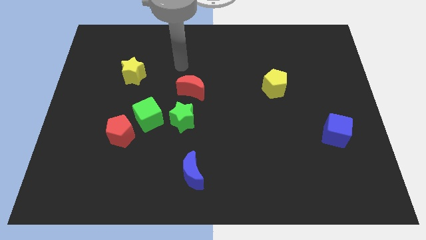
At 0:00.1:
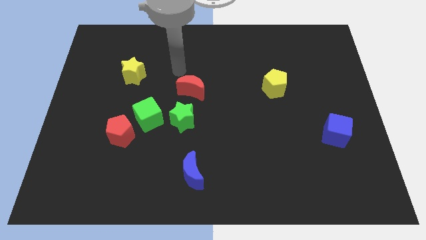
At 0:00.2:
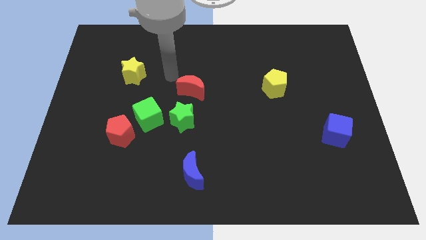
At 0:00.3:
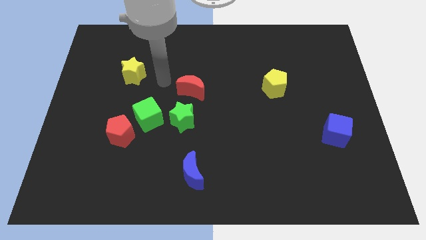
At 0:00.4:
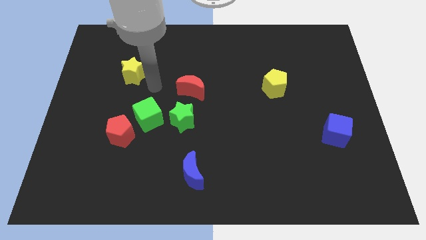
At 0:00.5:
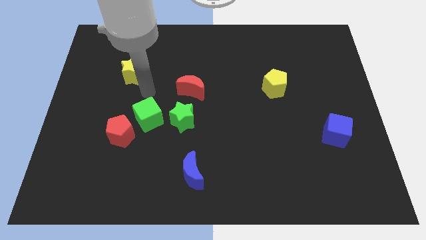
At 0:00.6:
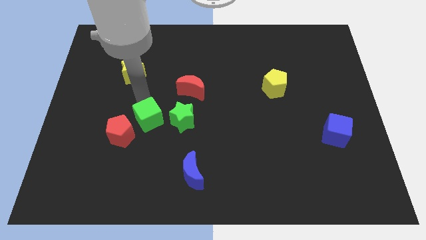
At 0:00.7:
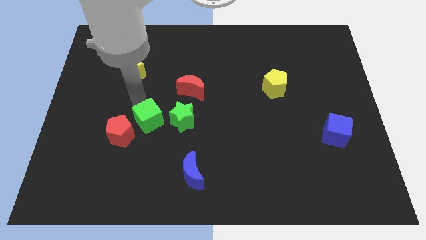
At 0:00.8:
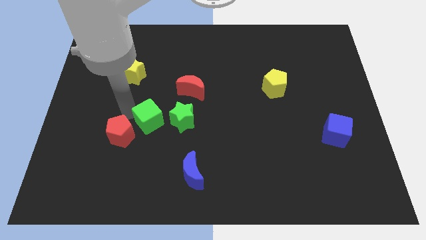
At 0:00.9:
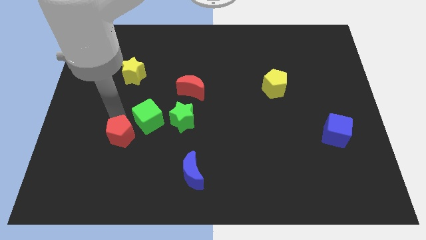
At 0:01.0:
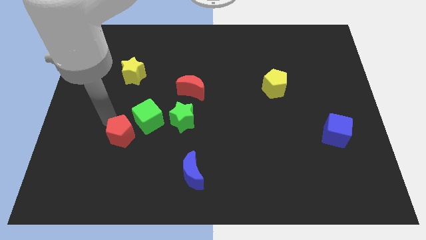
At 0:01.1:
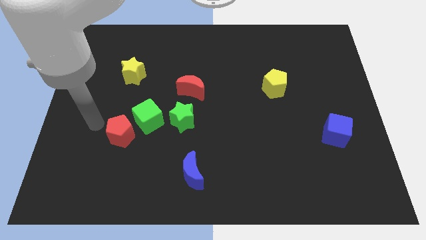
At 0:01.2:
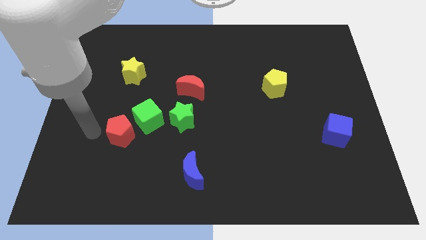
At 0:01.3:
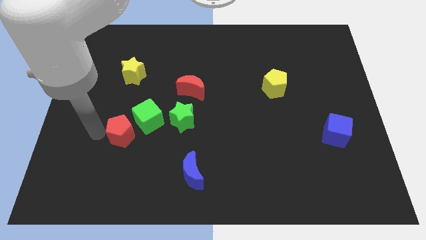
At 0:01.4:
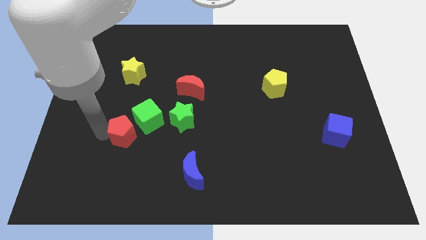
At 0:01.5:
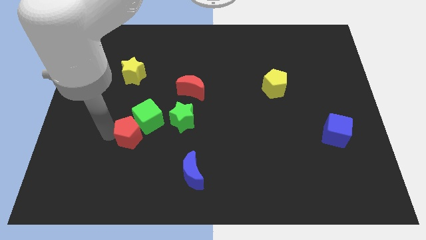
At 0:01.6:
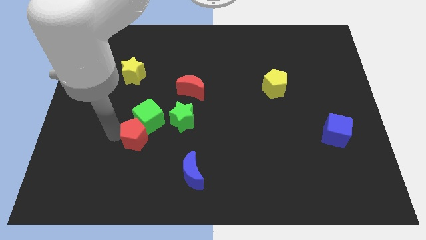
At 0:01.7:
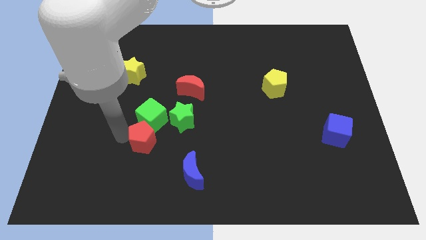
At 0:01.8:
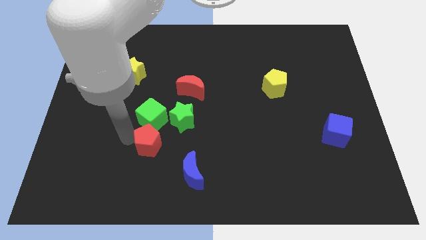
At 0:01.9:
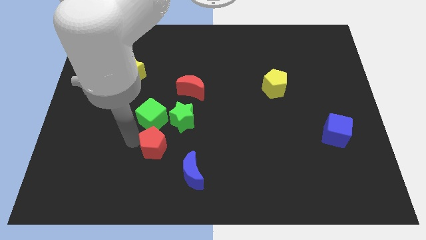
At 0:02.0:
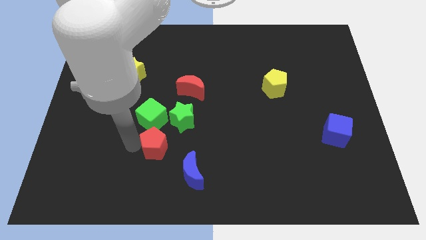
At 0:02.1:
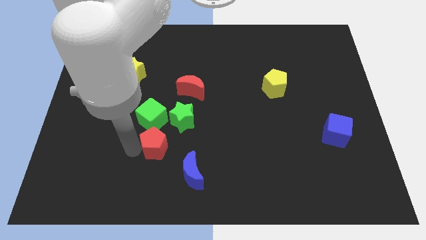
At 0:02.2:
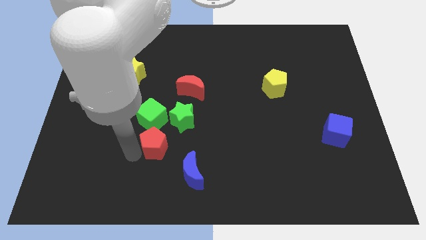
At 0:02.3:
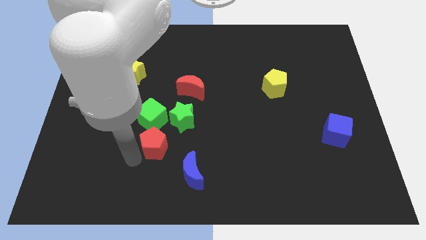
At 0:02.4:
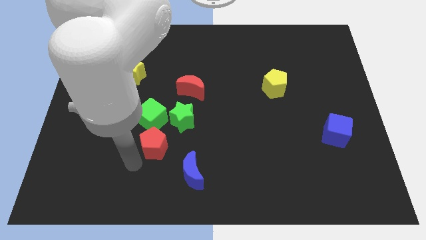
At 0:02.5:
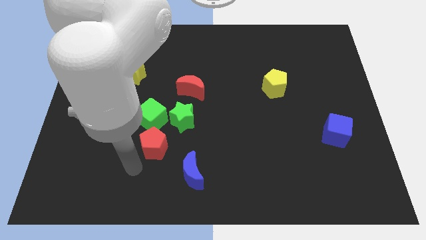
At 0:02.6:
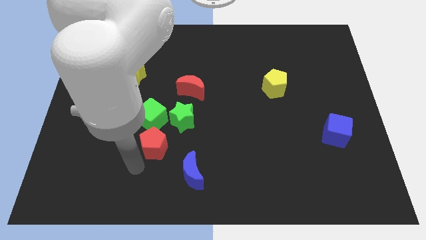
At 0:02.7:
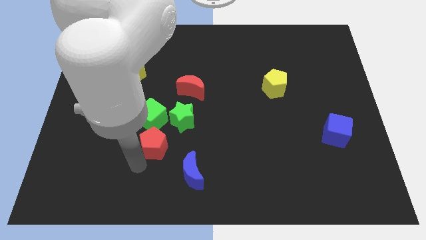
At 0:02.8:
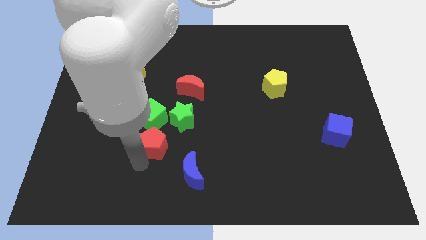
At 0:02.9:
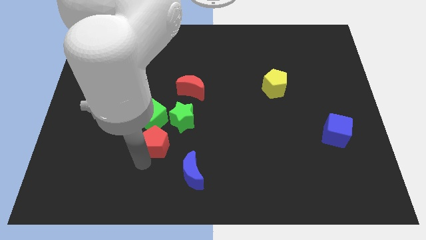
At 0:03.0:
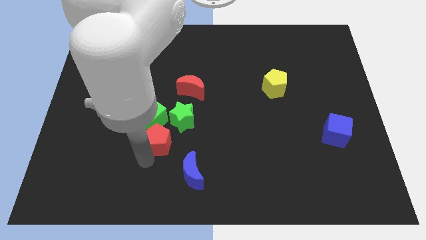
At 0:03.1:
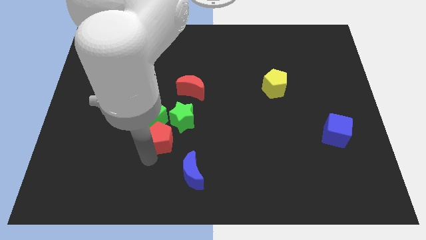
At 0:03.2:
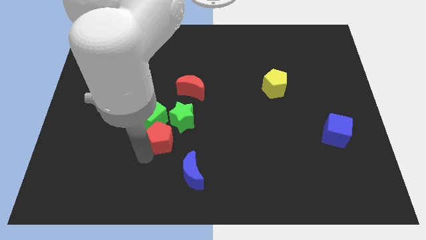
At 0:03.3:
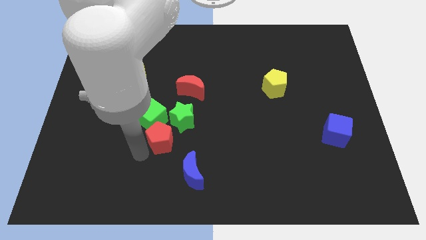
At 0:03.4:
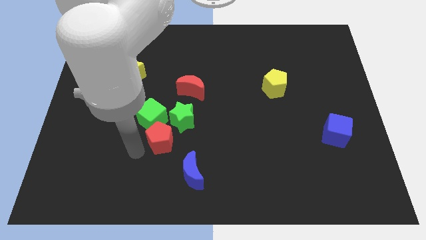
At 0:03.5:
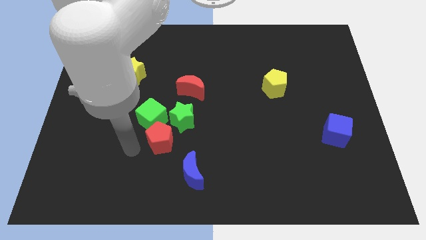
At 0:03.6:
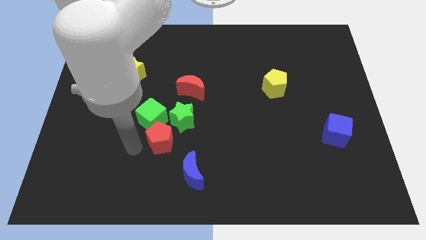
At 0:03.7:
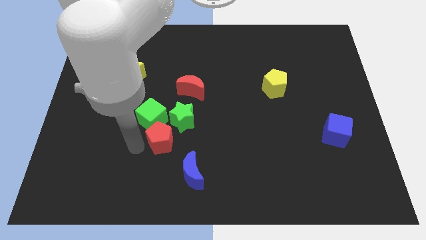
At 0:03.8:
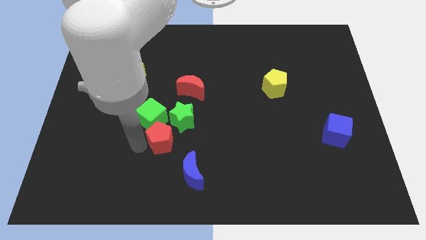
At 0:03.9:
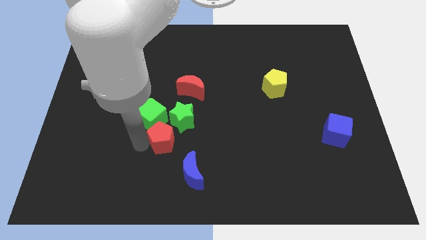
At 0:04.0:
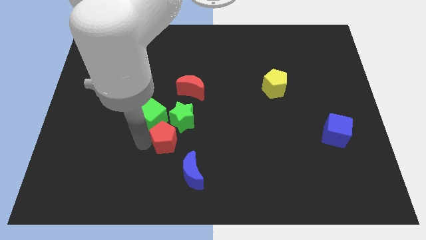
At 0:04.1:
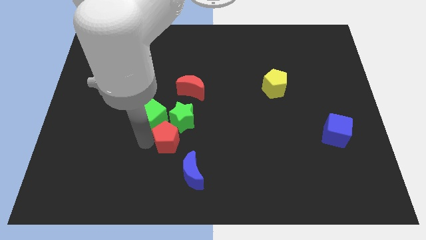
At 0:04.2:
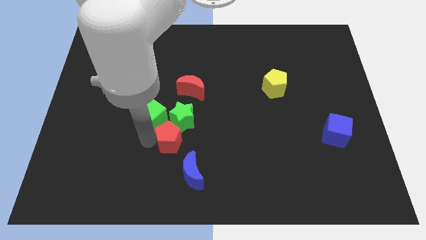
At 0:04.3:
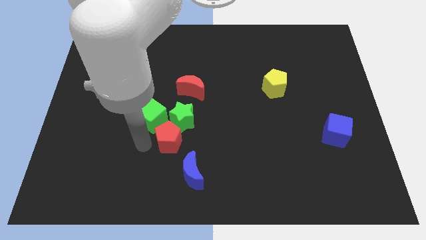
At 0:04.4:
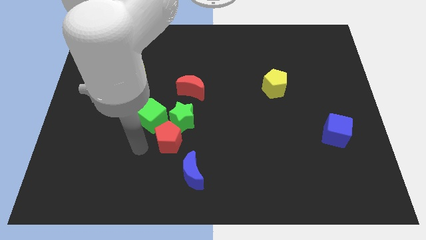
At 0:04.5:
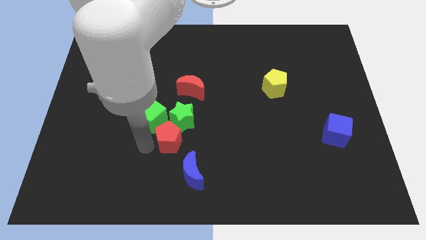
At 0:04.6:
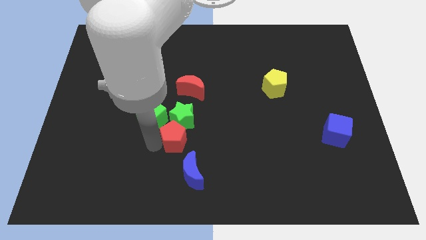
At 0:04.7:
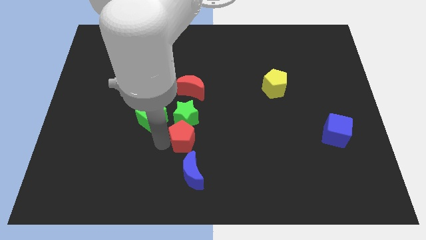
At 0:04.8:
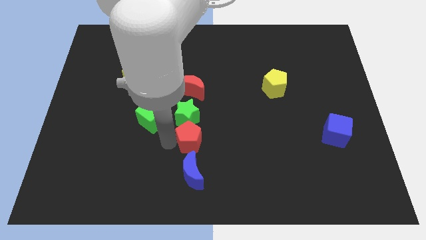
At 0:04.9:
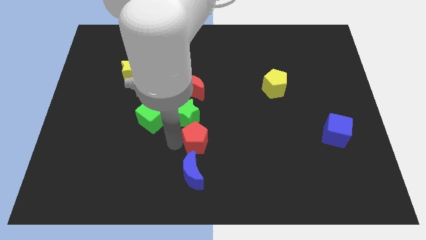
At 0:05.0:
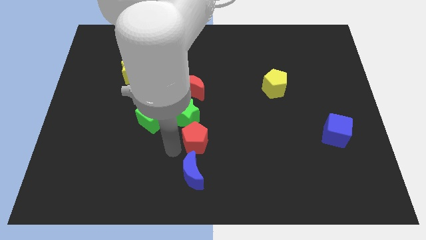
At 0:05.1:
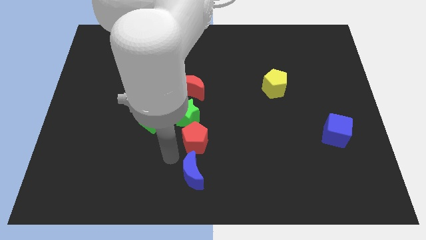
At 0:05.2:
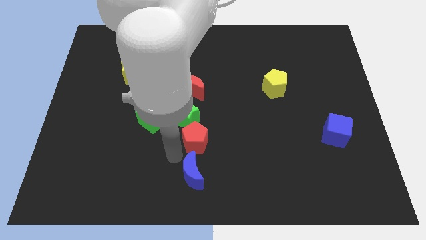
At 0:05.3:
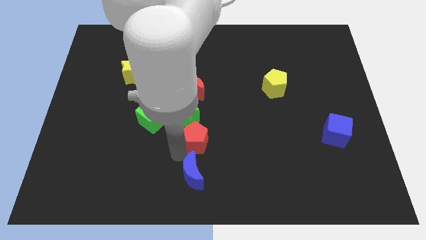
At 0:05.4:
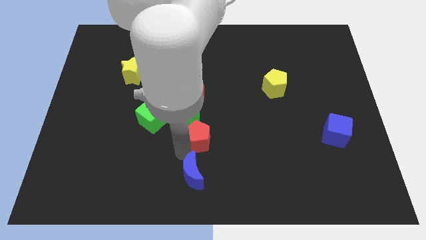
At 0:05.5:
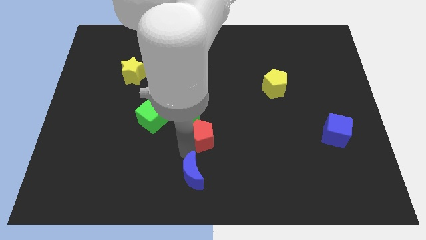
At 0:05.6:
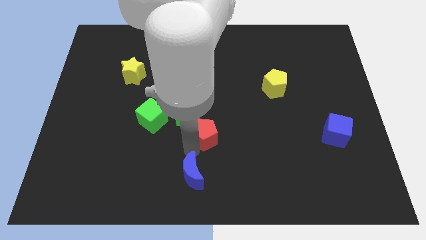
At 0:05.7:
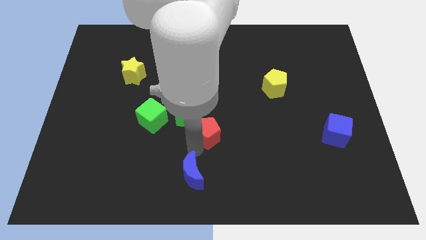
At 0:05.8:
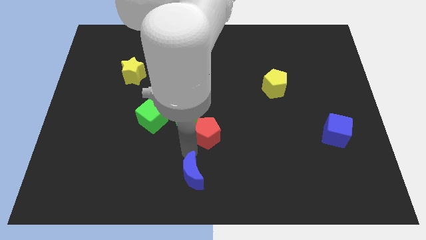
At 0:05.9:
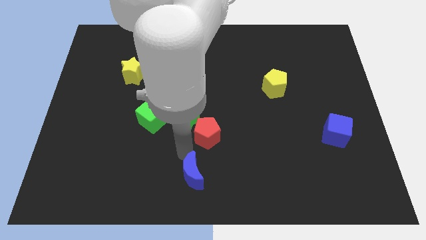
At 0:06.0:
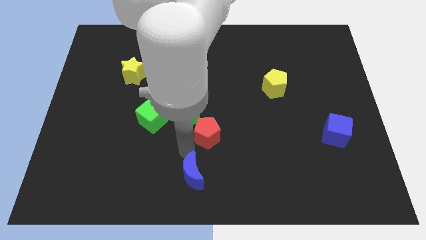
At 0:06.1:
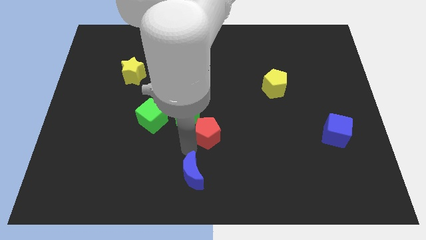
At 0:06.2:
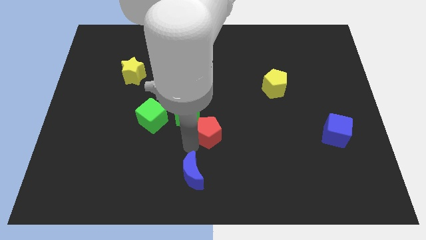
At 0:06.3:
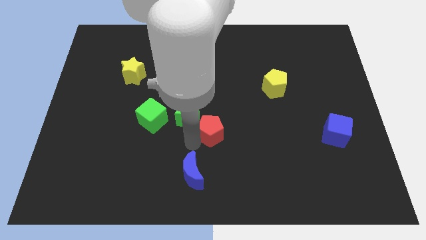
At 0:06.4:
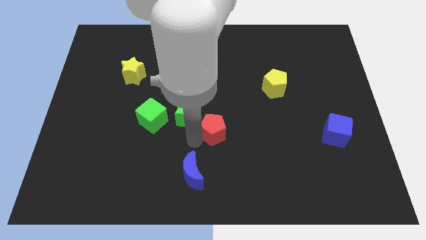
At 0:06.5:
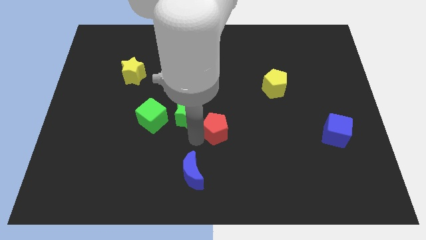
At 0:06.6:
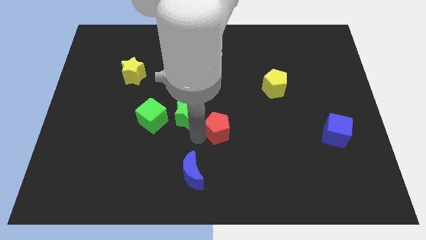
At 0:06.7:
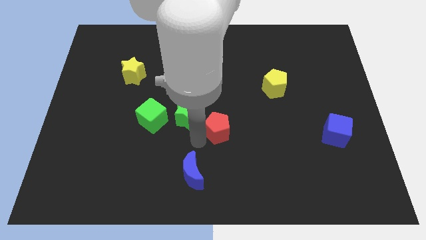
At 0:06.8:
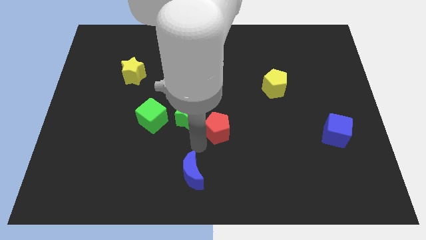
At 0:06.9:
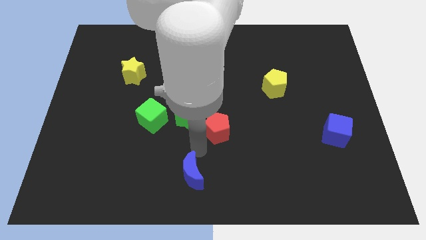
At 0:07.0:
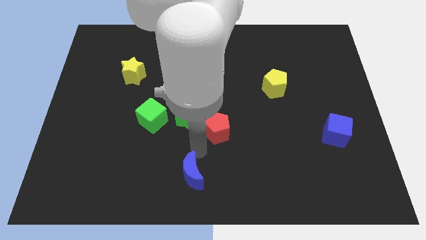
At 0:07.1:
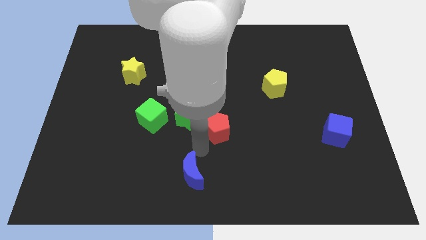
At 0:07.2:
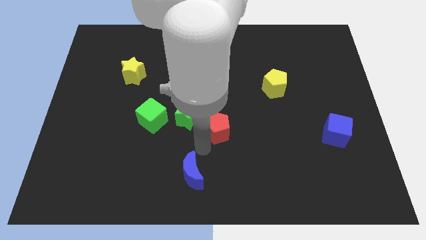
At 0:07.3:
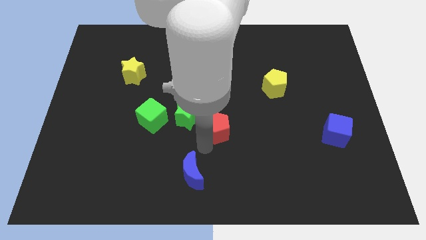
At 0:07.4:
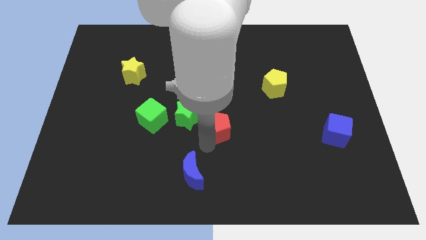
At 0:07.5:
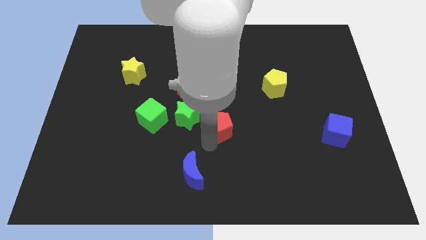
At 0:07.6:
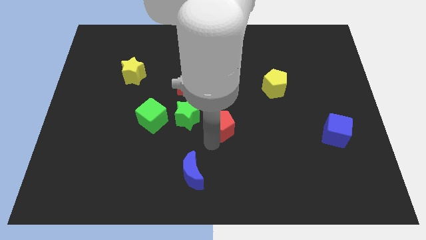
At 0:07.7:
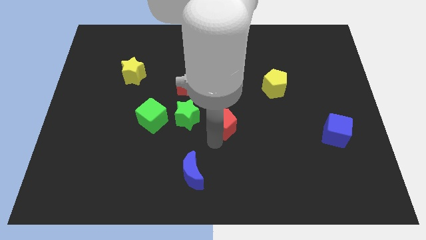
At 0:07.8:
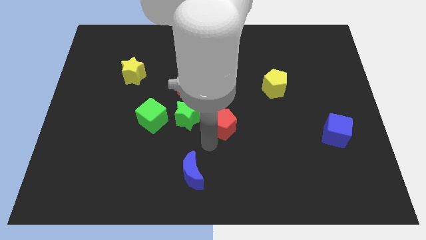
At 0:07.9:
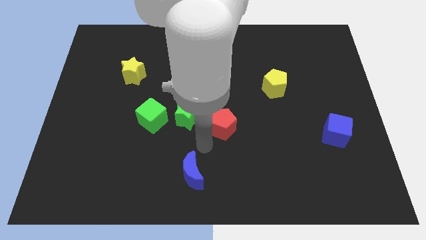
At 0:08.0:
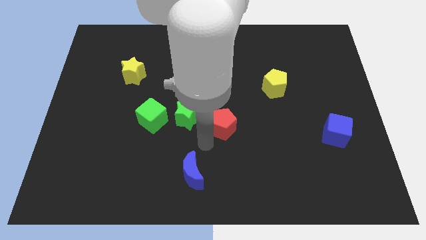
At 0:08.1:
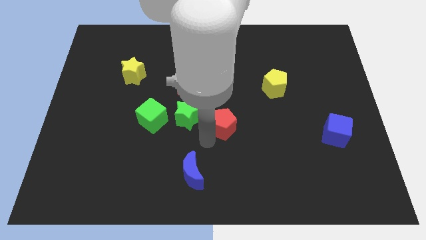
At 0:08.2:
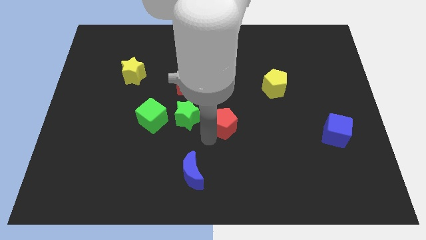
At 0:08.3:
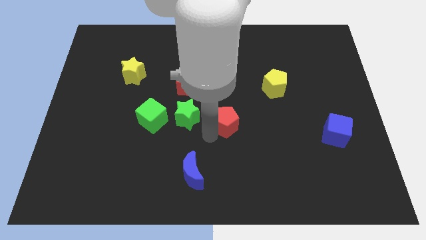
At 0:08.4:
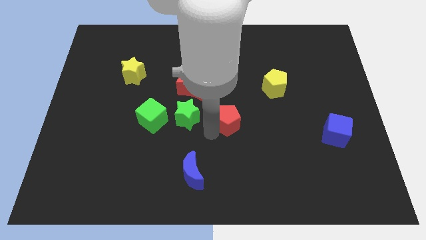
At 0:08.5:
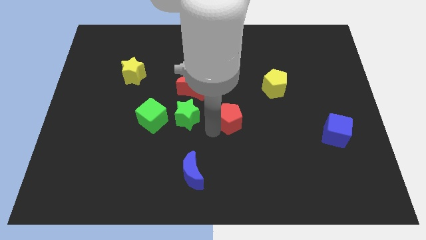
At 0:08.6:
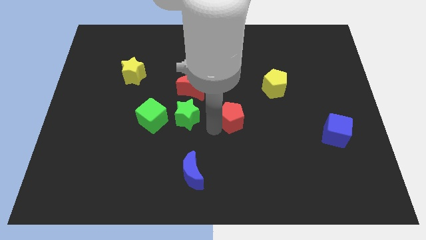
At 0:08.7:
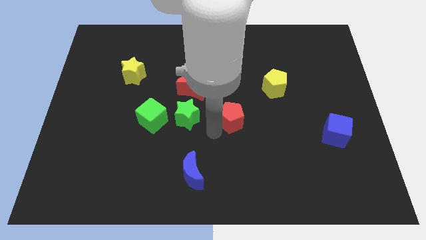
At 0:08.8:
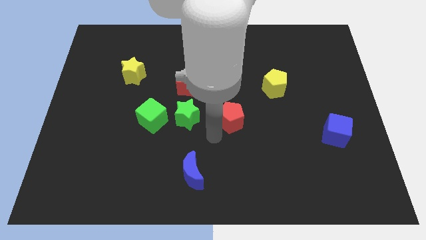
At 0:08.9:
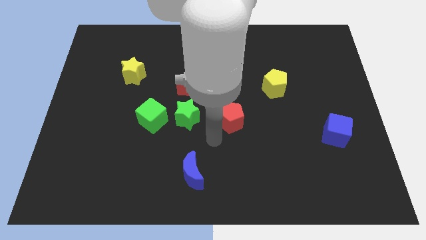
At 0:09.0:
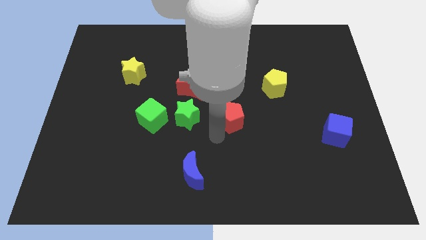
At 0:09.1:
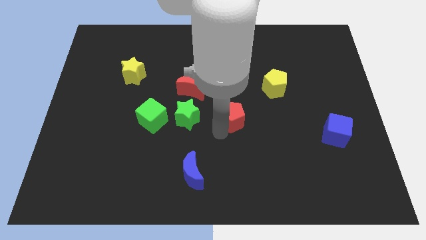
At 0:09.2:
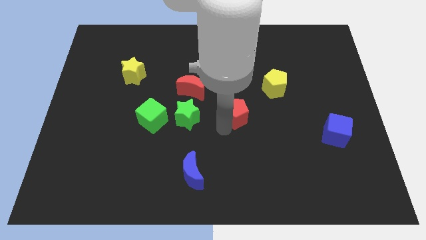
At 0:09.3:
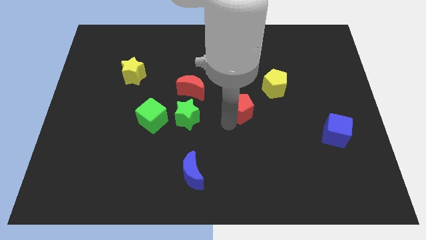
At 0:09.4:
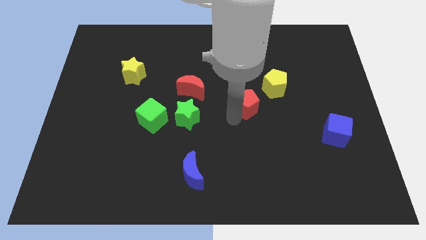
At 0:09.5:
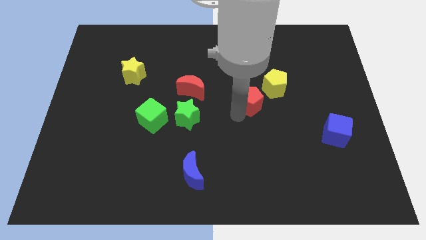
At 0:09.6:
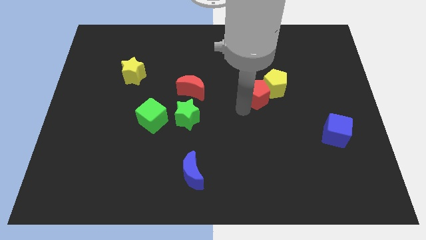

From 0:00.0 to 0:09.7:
move the red pentagon towards the yellow pentagon
